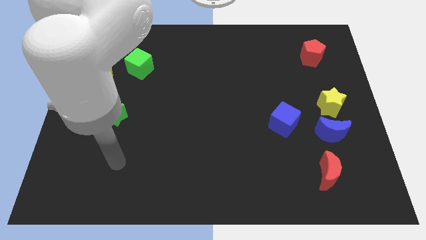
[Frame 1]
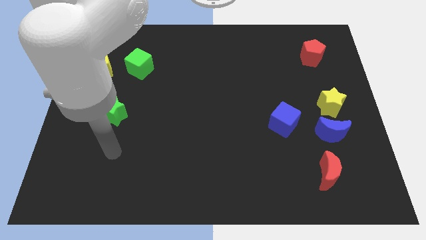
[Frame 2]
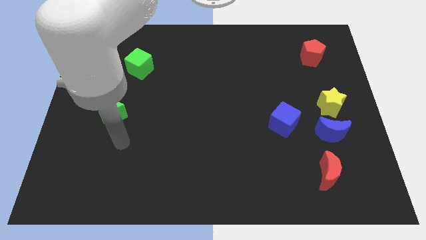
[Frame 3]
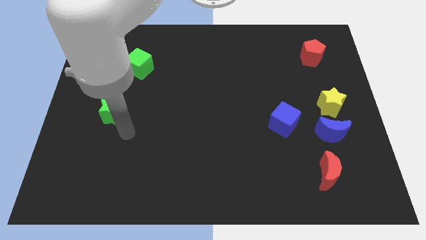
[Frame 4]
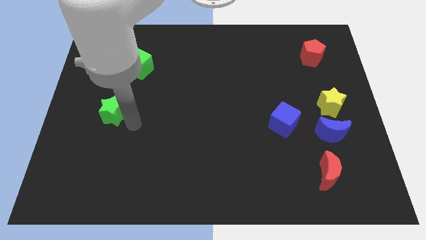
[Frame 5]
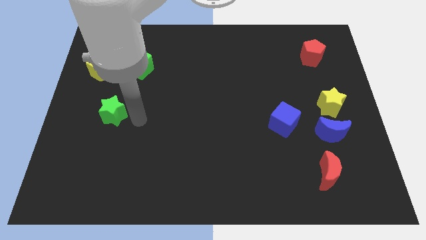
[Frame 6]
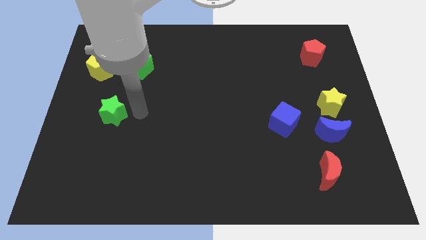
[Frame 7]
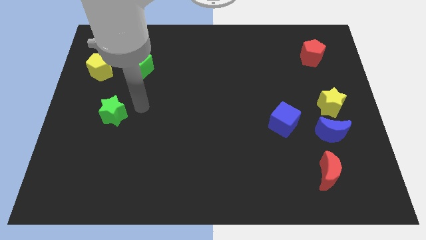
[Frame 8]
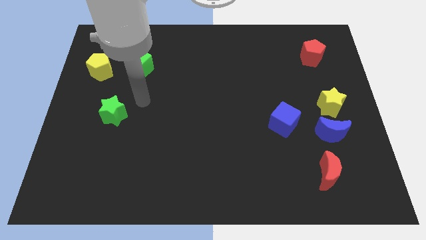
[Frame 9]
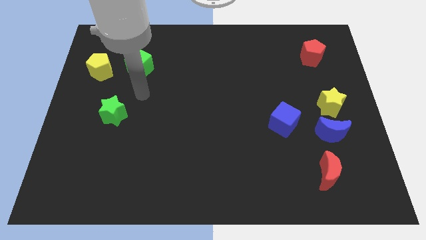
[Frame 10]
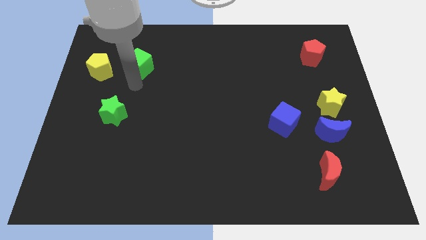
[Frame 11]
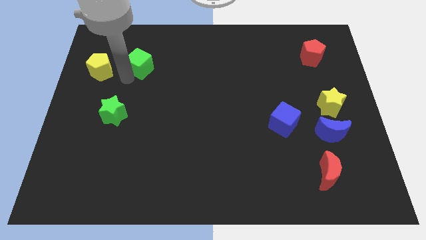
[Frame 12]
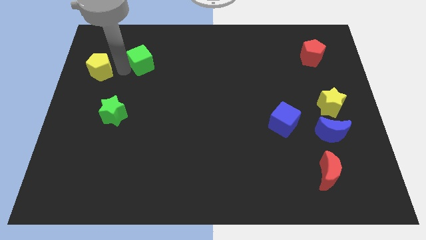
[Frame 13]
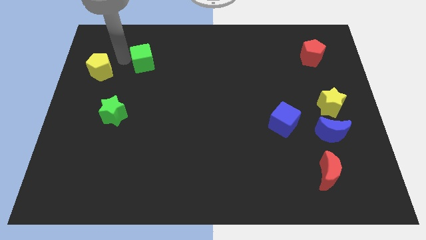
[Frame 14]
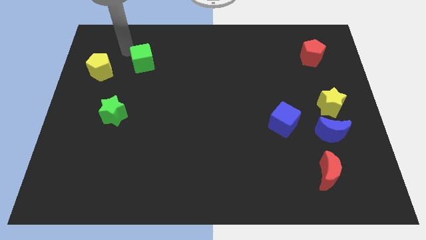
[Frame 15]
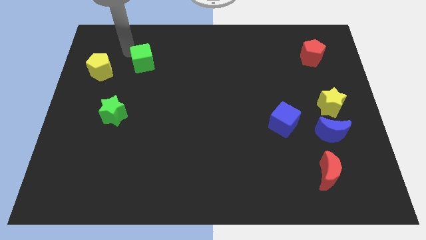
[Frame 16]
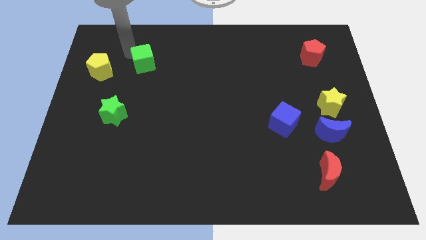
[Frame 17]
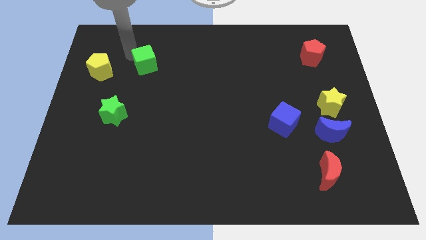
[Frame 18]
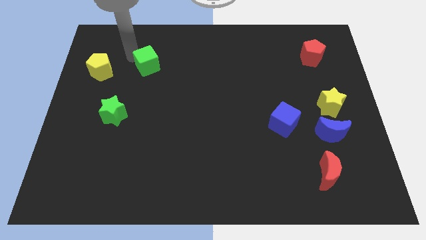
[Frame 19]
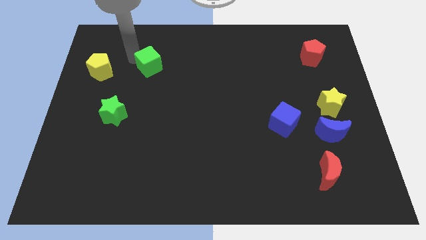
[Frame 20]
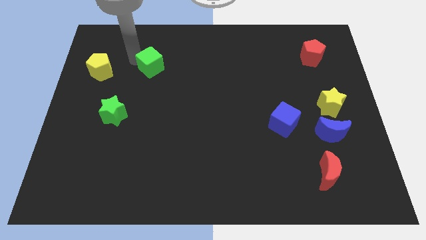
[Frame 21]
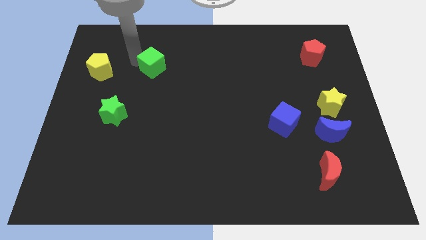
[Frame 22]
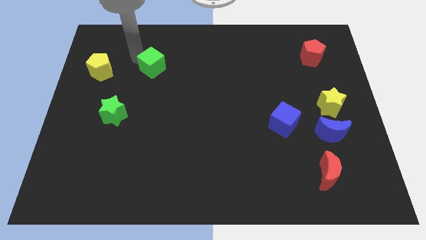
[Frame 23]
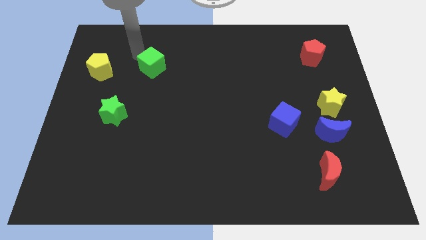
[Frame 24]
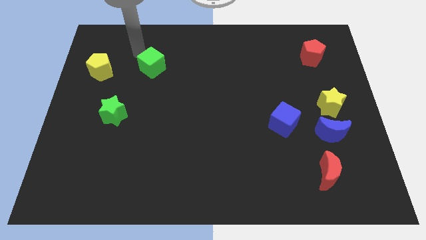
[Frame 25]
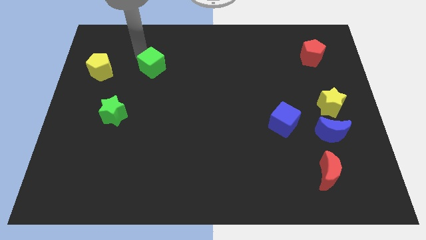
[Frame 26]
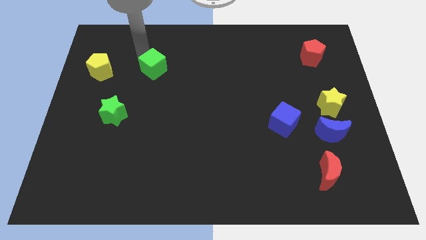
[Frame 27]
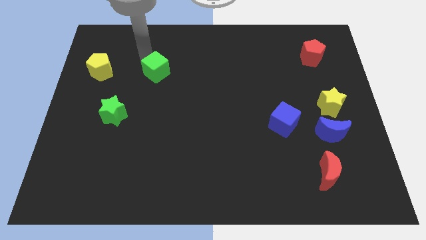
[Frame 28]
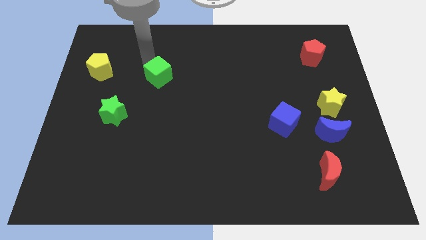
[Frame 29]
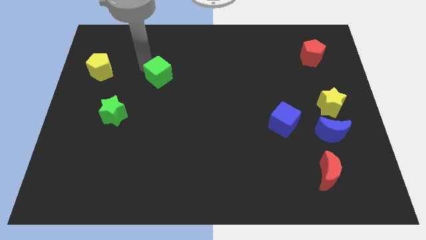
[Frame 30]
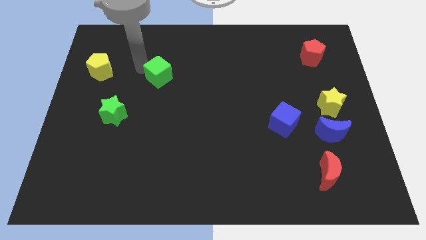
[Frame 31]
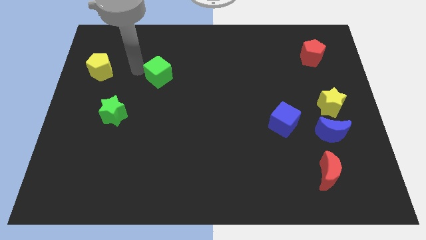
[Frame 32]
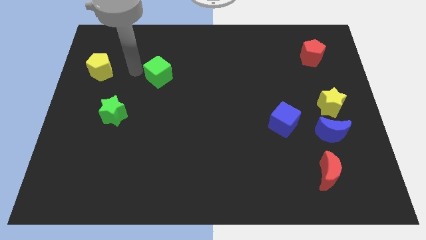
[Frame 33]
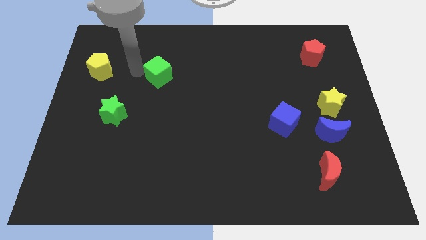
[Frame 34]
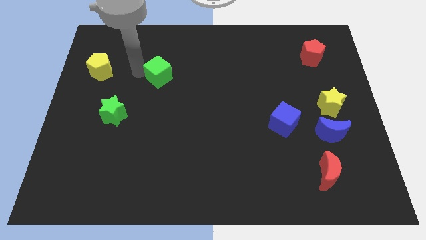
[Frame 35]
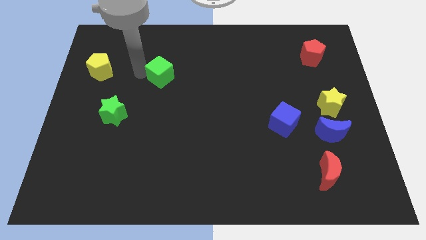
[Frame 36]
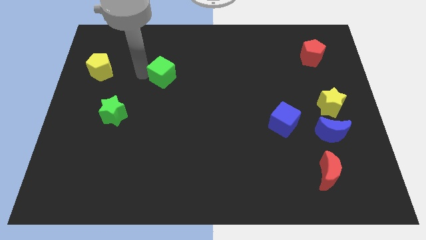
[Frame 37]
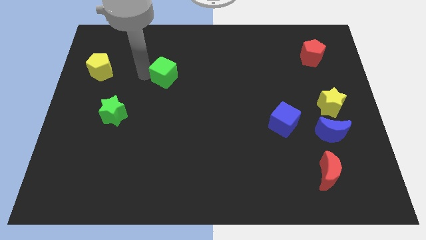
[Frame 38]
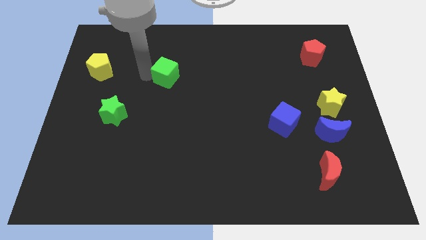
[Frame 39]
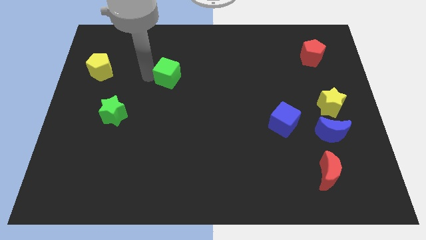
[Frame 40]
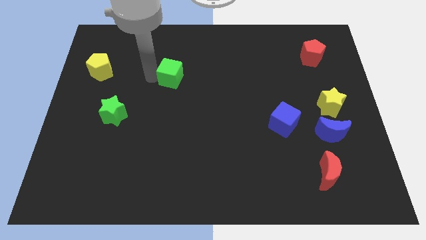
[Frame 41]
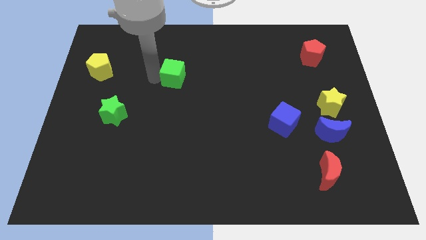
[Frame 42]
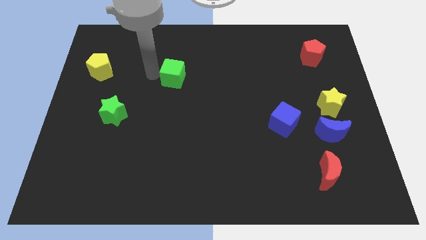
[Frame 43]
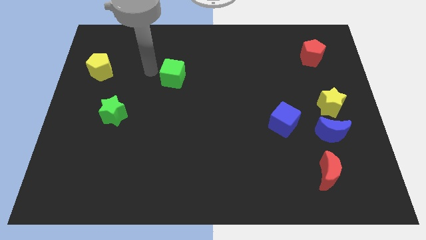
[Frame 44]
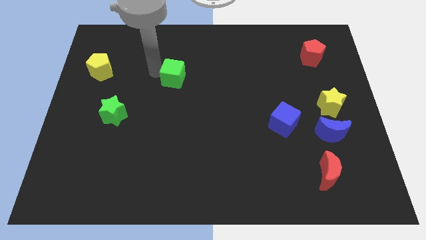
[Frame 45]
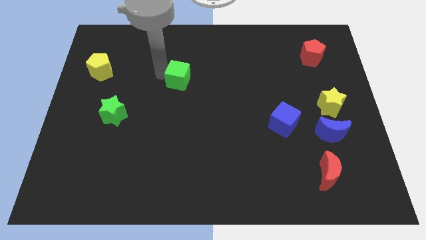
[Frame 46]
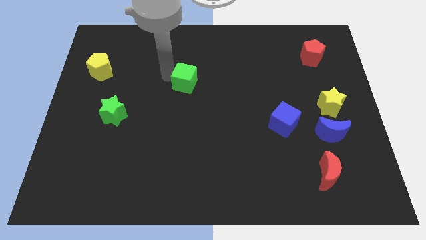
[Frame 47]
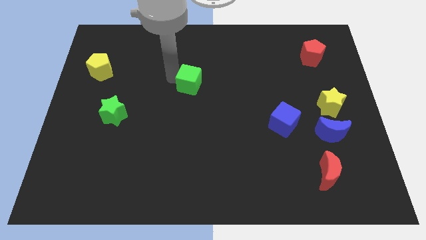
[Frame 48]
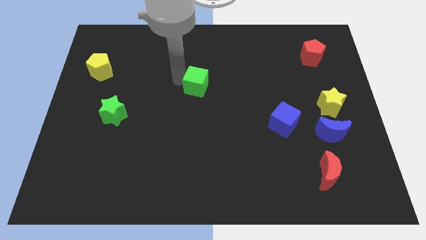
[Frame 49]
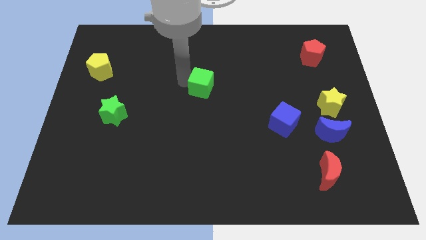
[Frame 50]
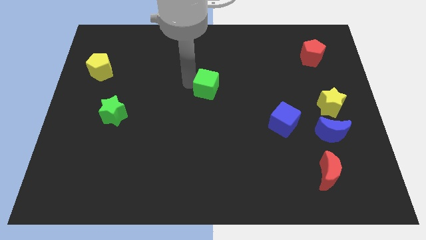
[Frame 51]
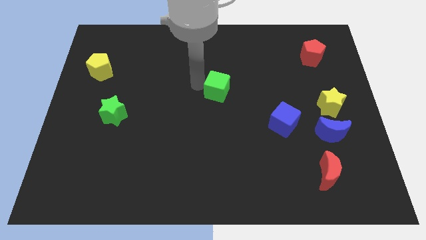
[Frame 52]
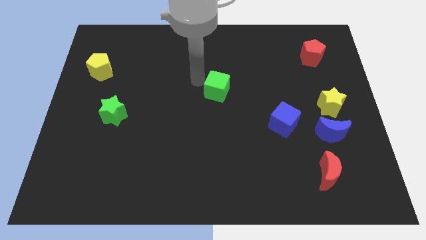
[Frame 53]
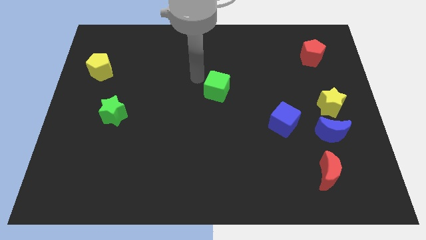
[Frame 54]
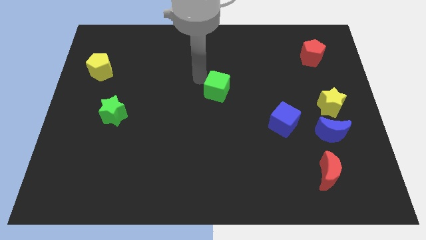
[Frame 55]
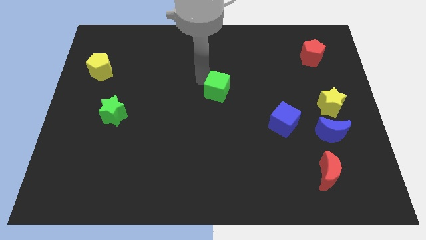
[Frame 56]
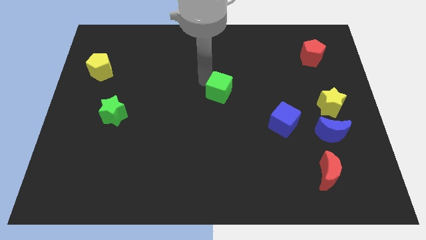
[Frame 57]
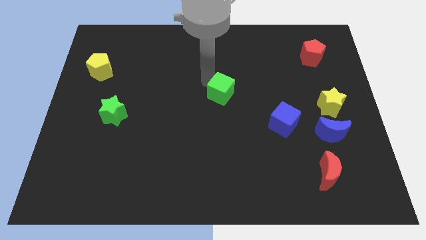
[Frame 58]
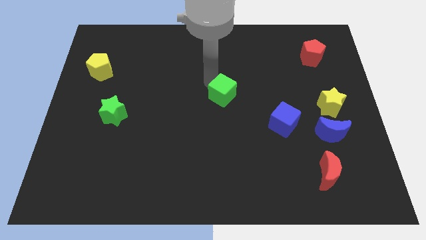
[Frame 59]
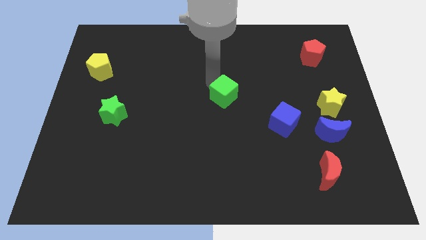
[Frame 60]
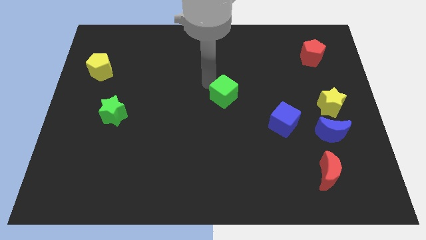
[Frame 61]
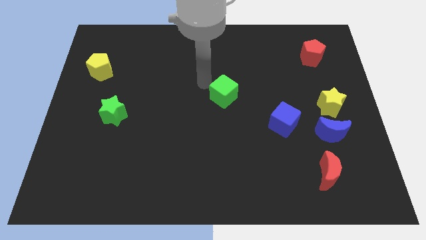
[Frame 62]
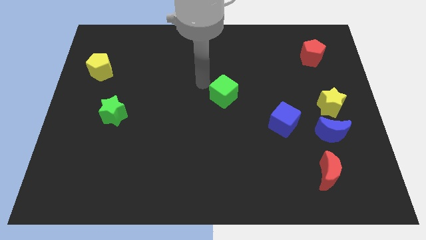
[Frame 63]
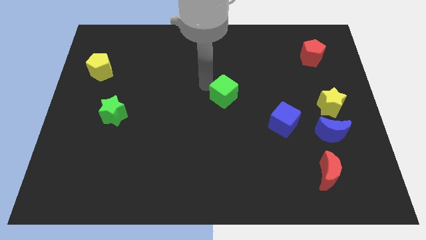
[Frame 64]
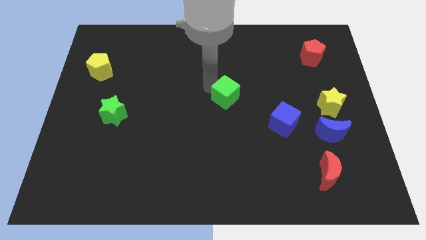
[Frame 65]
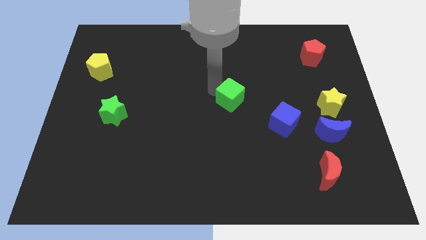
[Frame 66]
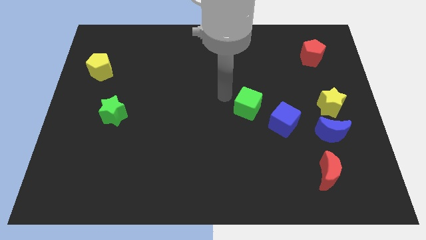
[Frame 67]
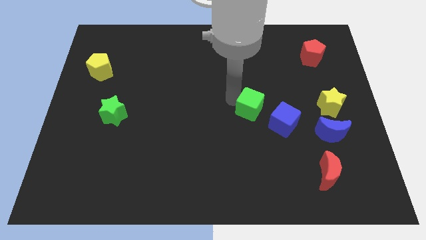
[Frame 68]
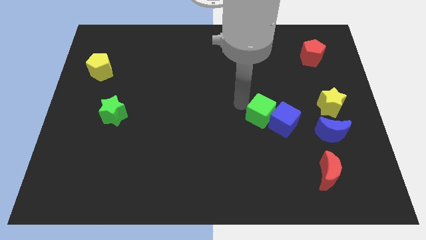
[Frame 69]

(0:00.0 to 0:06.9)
put the green cube close to the blue cube
